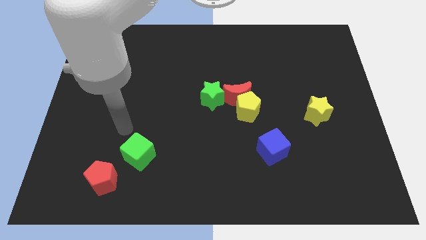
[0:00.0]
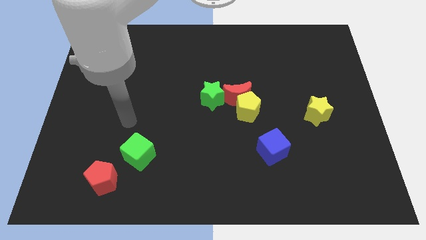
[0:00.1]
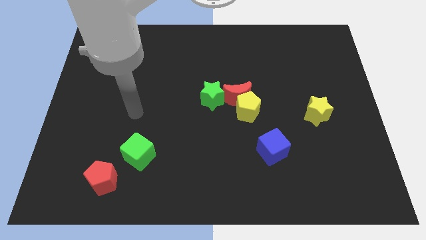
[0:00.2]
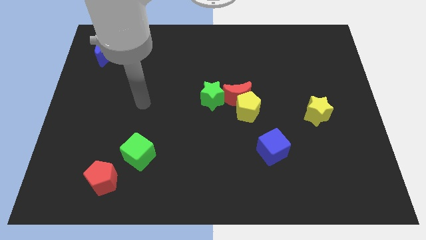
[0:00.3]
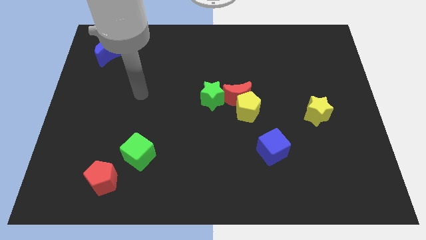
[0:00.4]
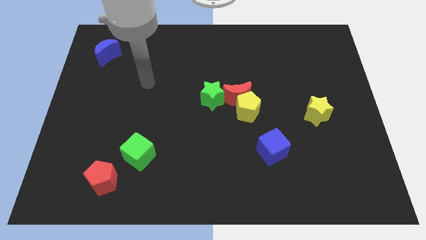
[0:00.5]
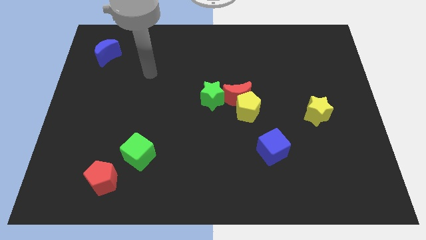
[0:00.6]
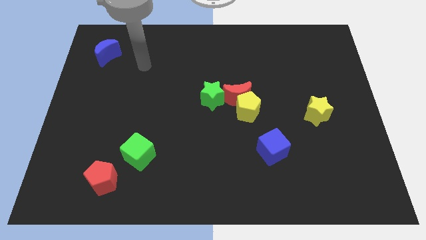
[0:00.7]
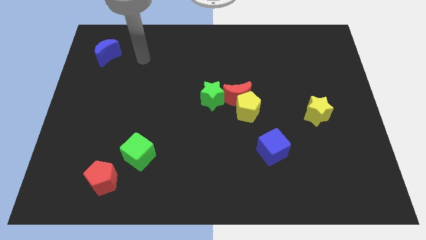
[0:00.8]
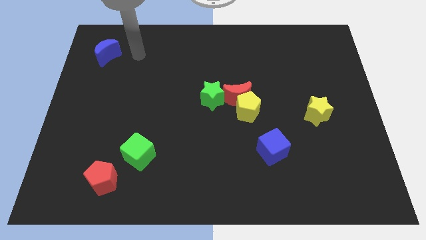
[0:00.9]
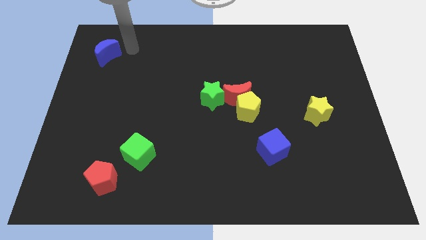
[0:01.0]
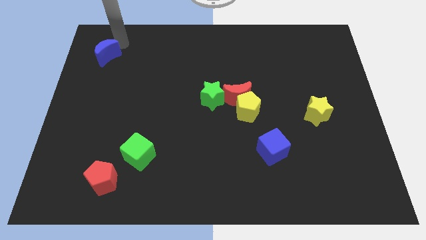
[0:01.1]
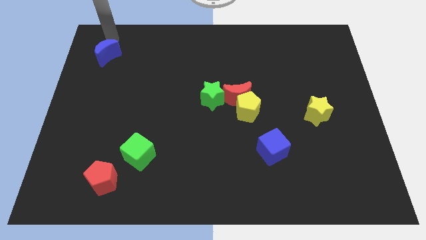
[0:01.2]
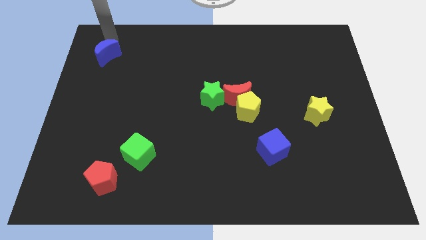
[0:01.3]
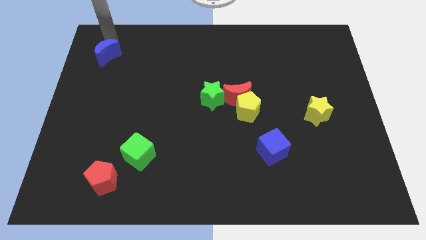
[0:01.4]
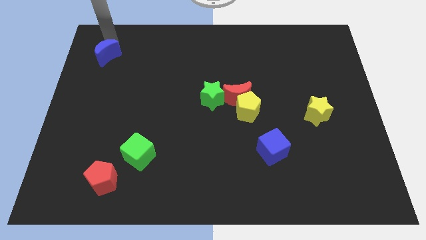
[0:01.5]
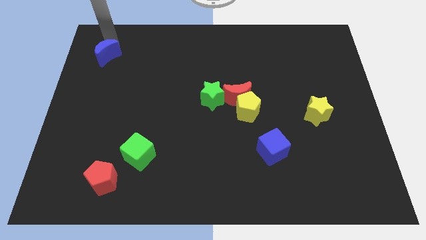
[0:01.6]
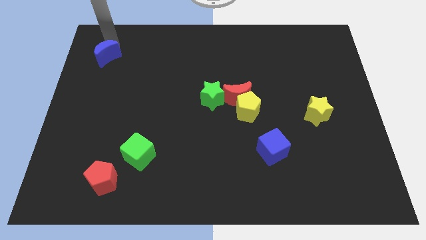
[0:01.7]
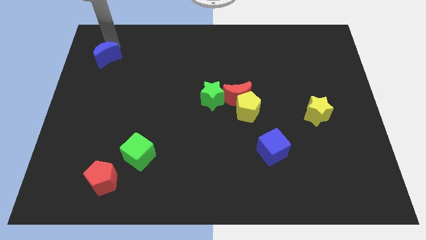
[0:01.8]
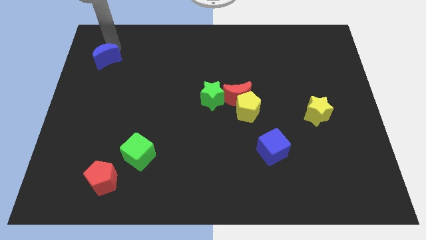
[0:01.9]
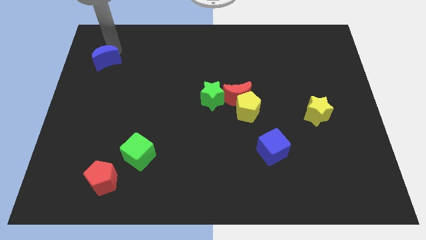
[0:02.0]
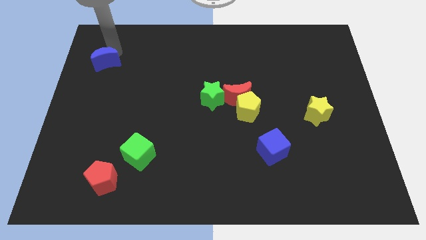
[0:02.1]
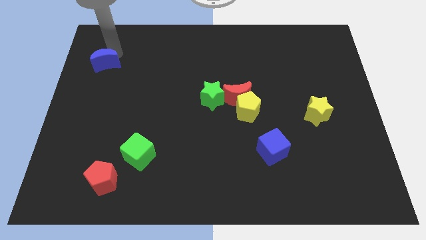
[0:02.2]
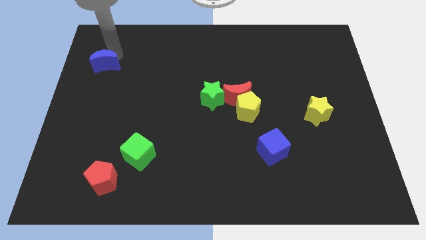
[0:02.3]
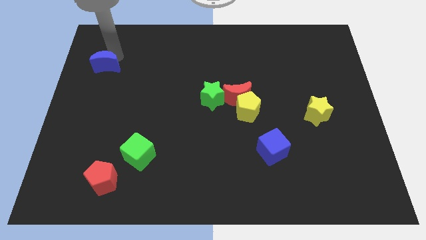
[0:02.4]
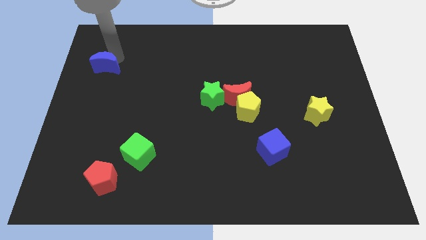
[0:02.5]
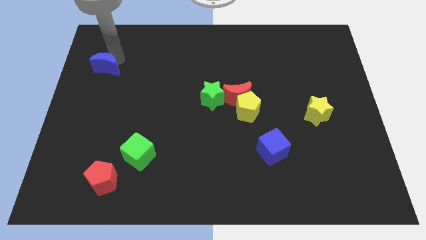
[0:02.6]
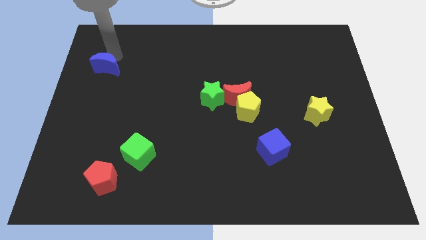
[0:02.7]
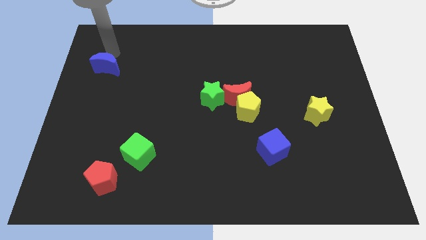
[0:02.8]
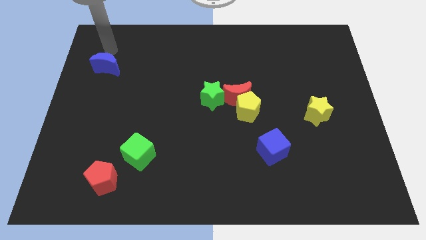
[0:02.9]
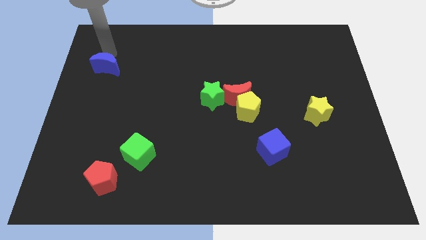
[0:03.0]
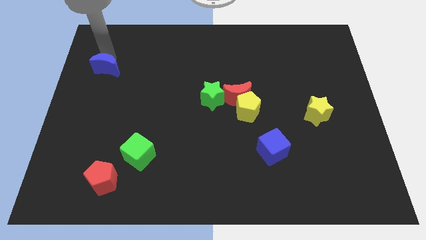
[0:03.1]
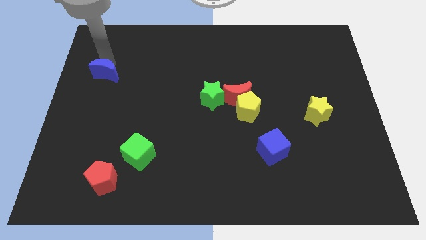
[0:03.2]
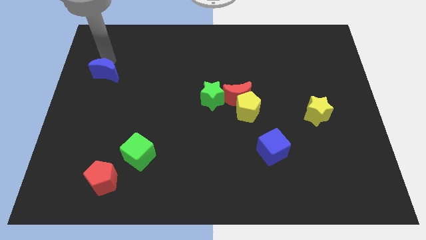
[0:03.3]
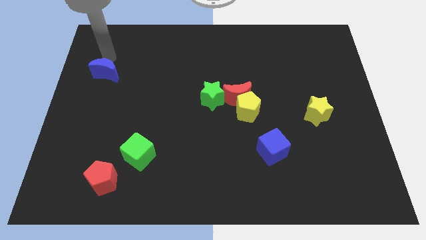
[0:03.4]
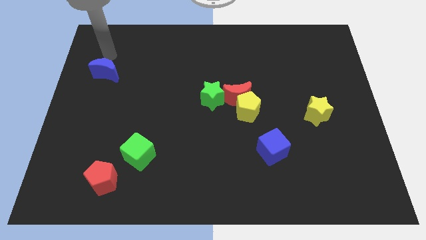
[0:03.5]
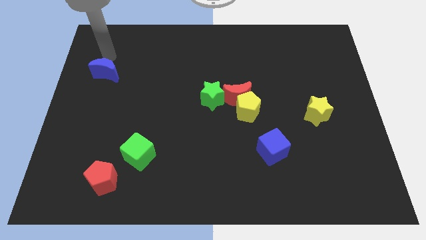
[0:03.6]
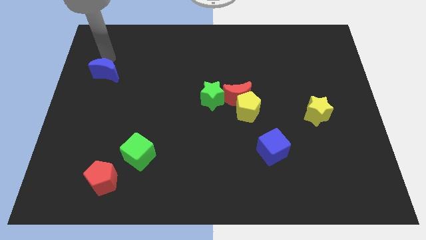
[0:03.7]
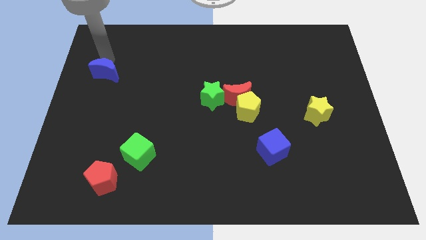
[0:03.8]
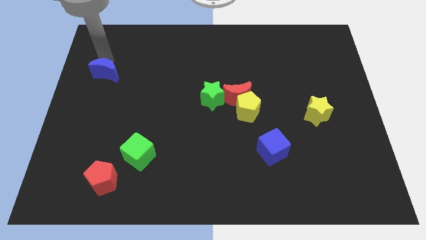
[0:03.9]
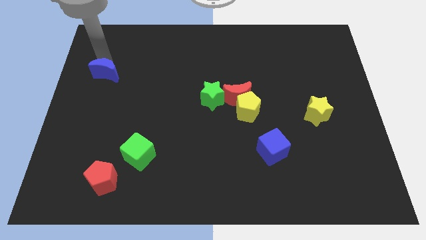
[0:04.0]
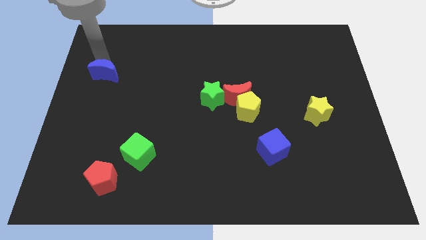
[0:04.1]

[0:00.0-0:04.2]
slide the blue moon downwards a little bit

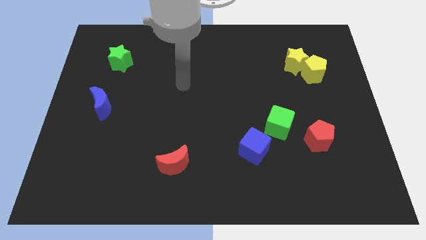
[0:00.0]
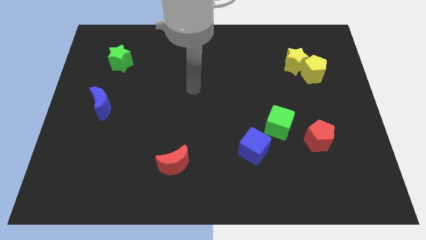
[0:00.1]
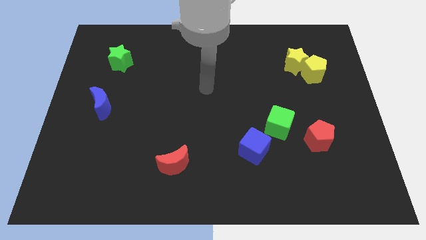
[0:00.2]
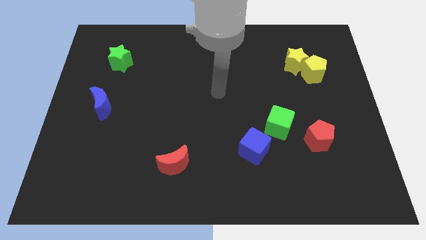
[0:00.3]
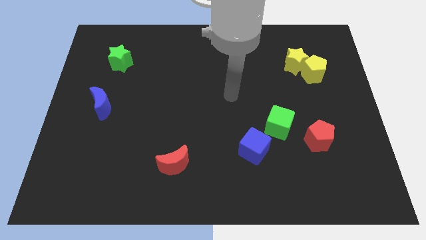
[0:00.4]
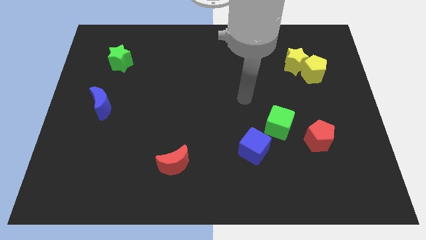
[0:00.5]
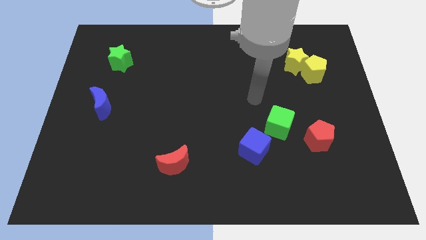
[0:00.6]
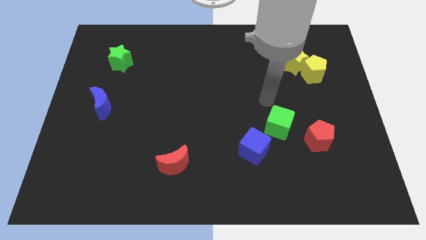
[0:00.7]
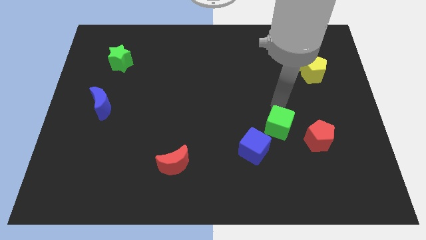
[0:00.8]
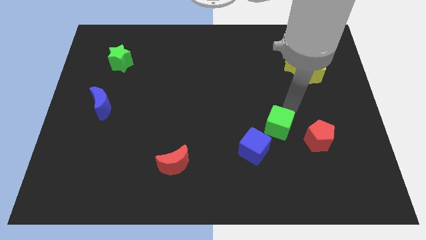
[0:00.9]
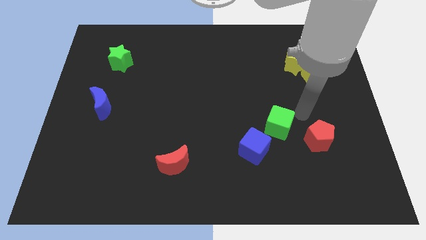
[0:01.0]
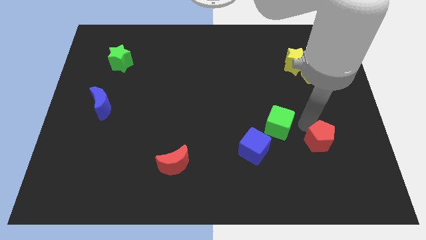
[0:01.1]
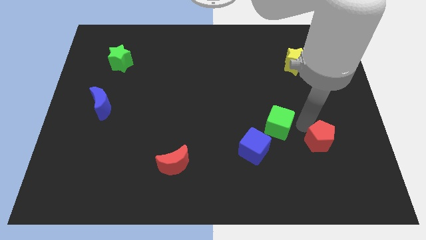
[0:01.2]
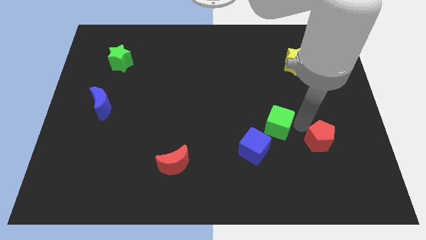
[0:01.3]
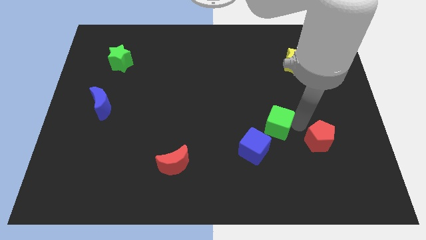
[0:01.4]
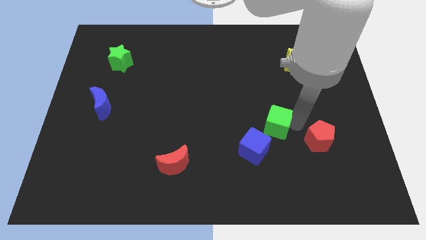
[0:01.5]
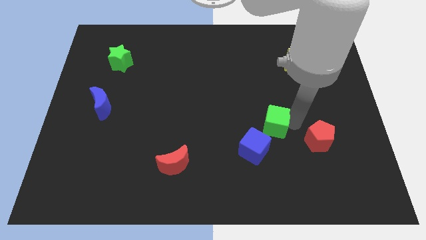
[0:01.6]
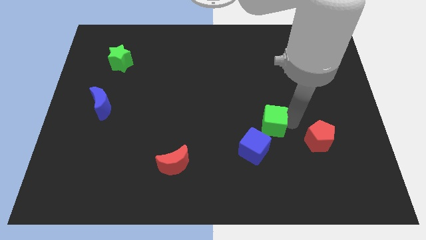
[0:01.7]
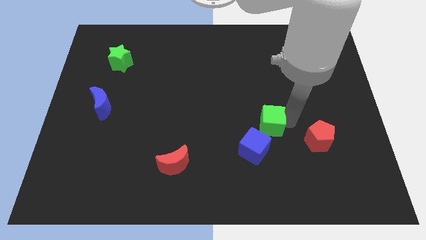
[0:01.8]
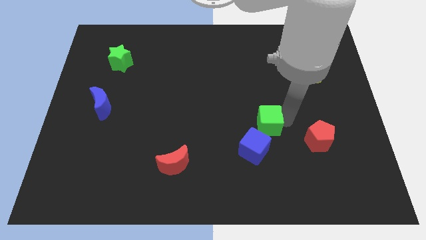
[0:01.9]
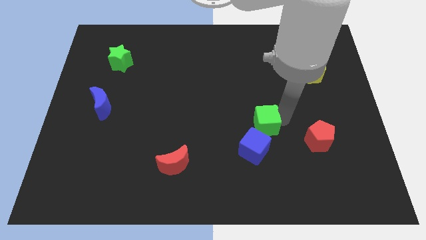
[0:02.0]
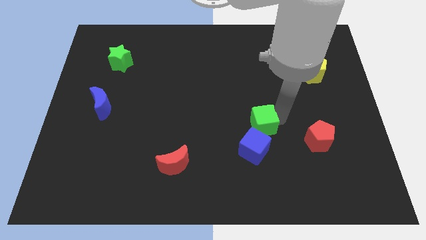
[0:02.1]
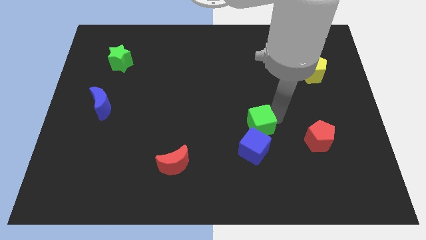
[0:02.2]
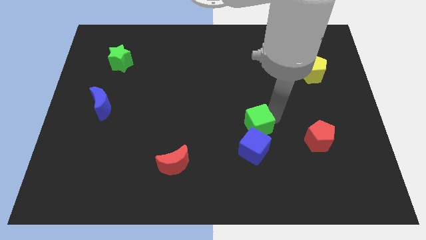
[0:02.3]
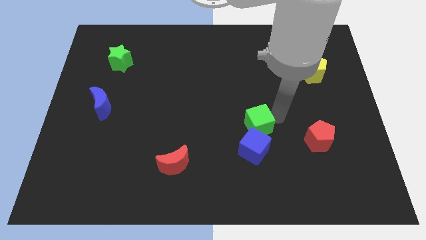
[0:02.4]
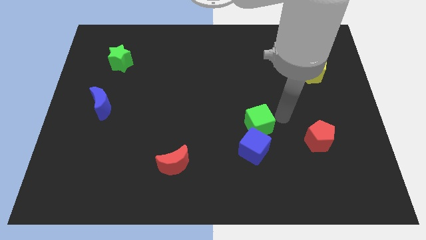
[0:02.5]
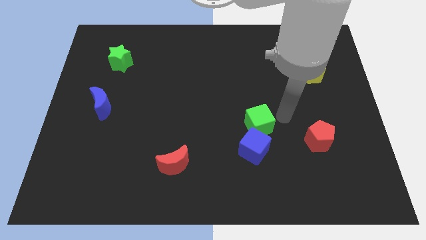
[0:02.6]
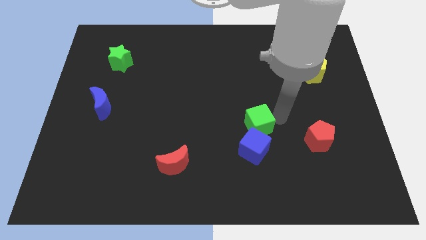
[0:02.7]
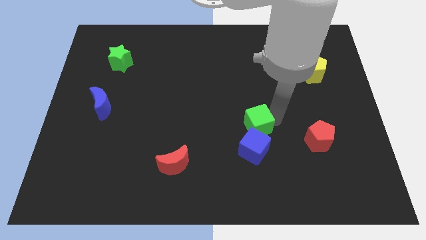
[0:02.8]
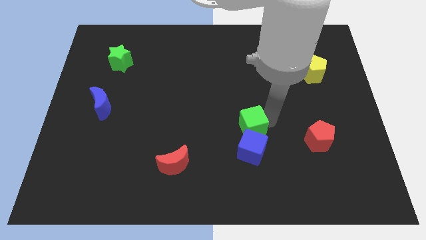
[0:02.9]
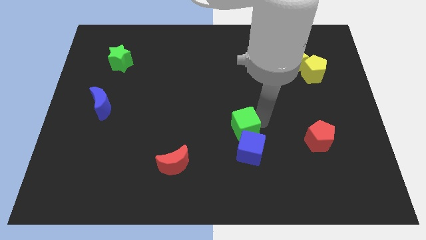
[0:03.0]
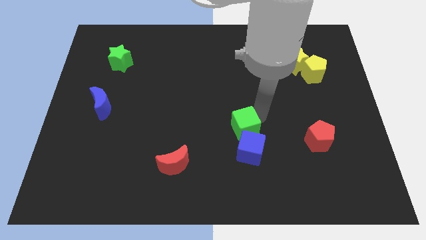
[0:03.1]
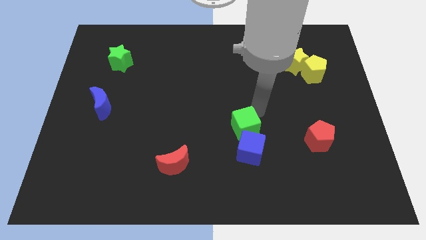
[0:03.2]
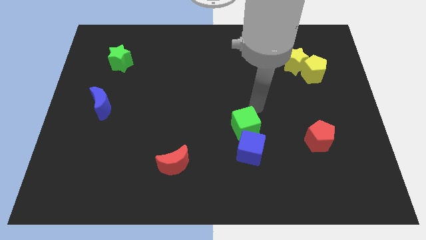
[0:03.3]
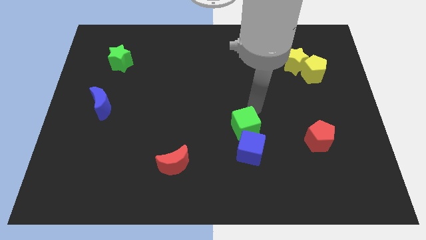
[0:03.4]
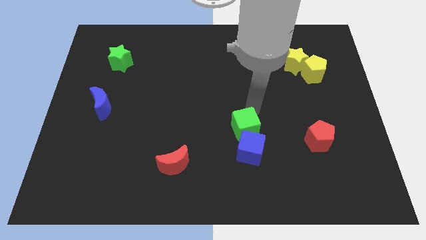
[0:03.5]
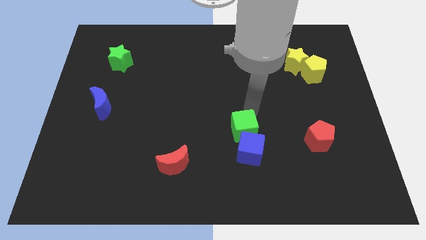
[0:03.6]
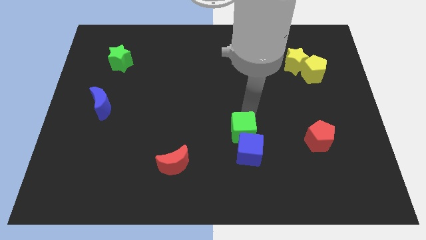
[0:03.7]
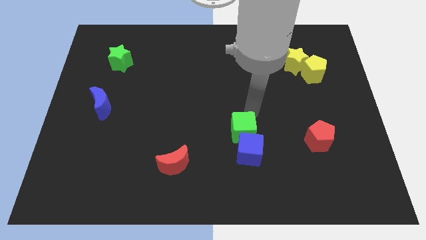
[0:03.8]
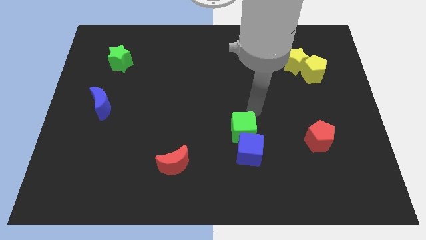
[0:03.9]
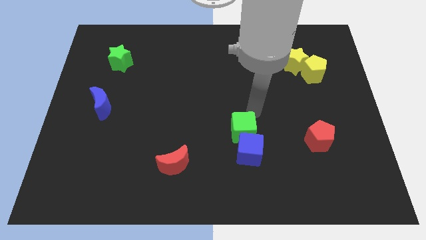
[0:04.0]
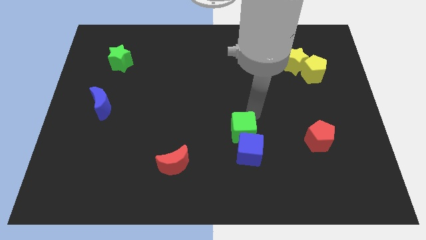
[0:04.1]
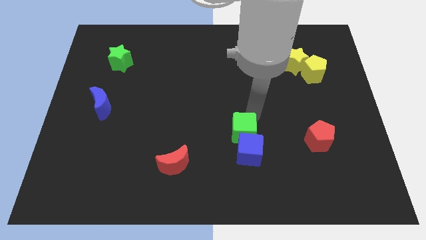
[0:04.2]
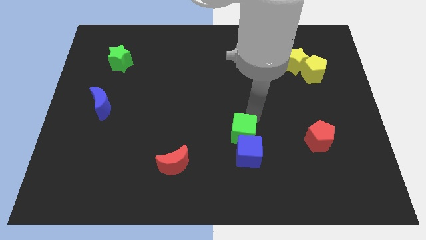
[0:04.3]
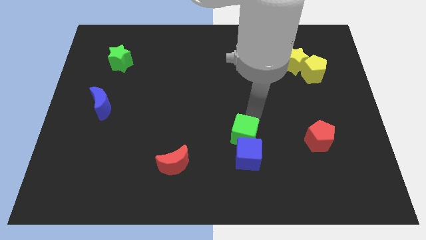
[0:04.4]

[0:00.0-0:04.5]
push the green cube somewhat down and to the left
